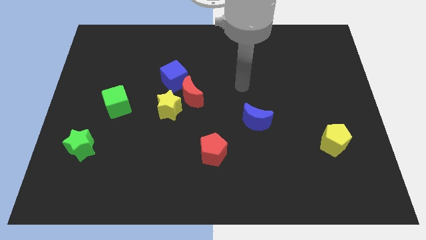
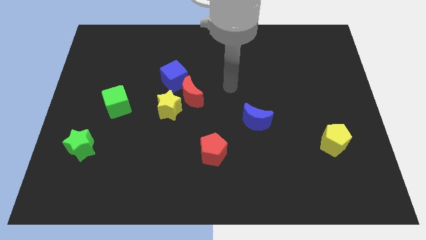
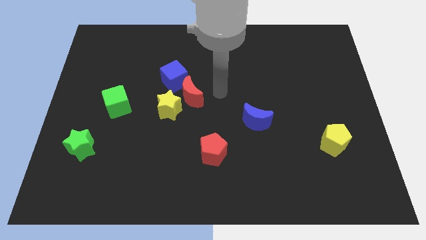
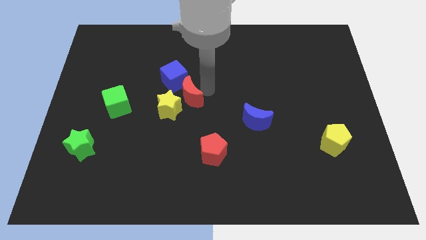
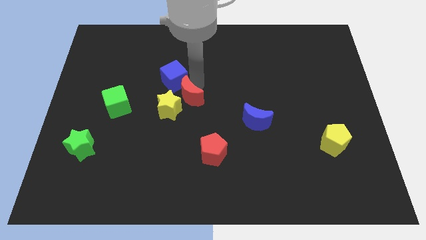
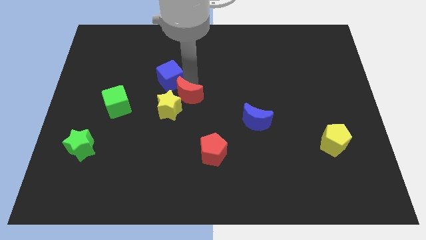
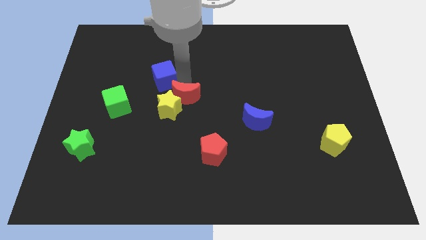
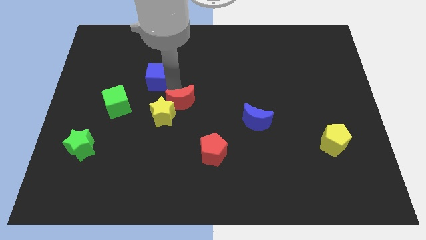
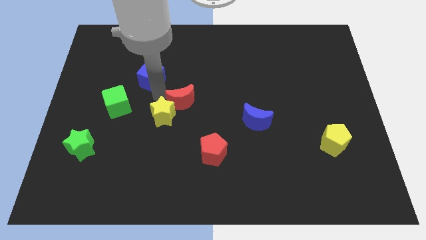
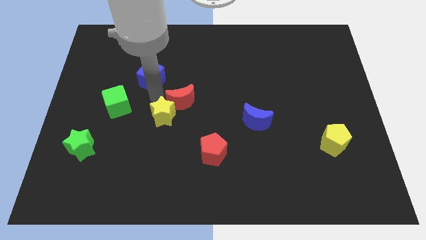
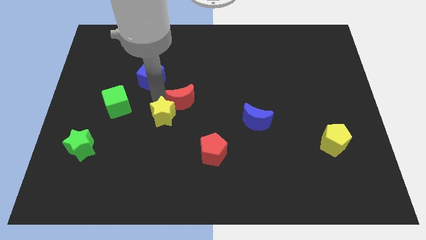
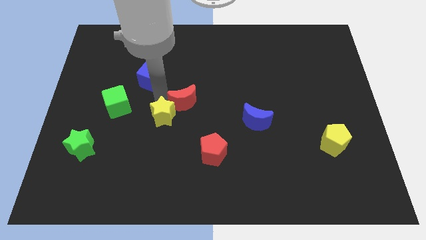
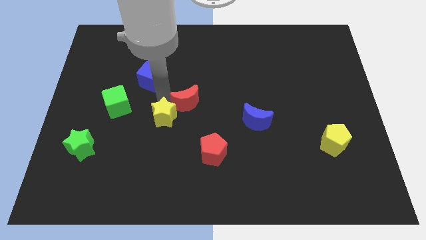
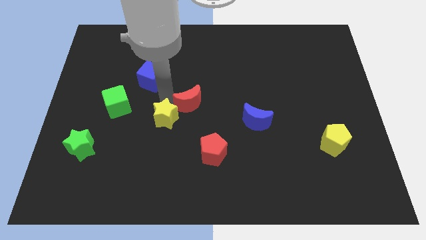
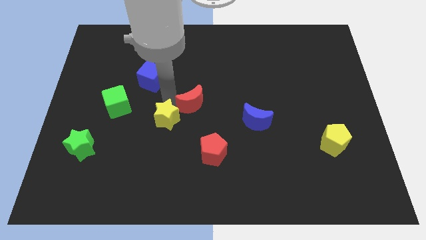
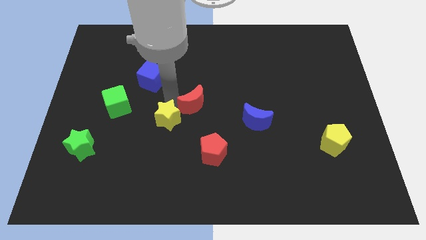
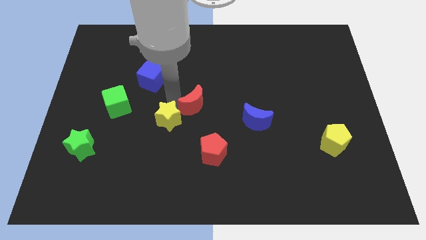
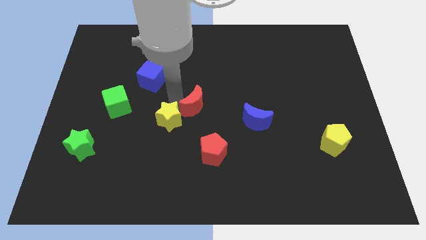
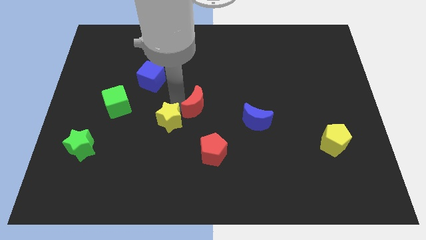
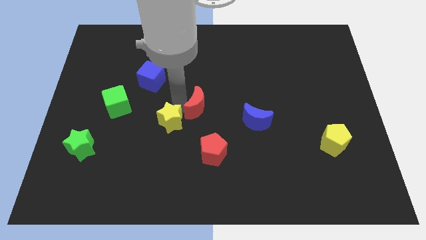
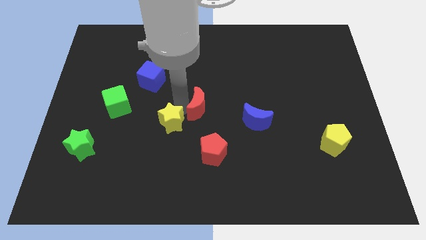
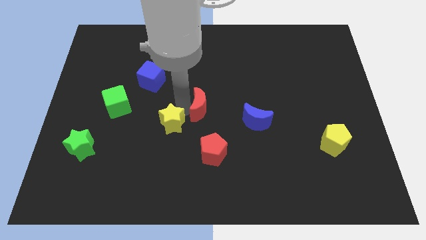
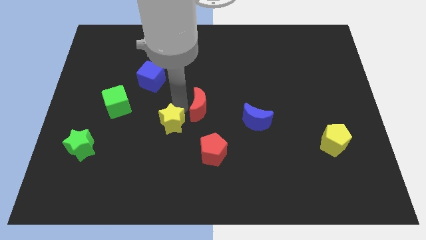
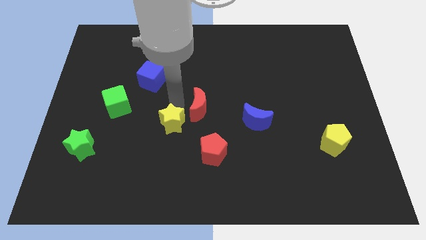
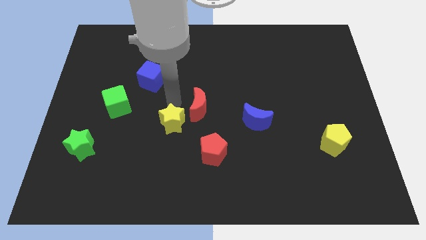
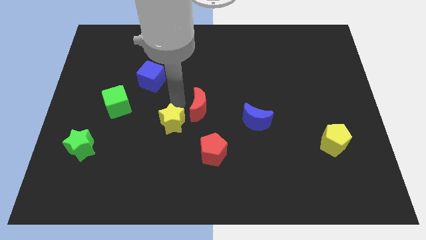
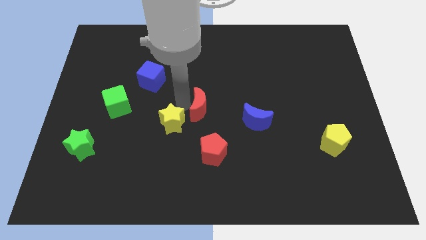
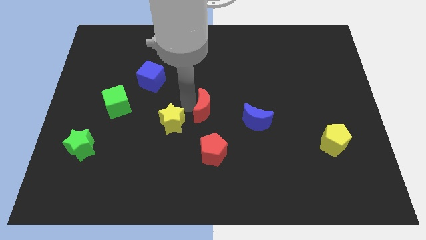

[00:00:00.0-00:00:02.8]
separate the red moon from the yellow star and blue cube

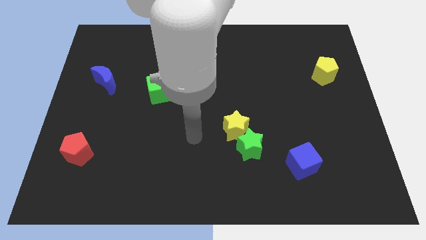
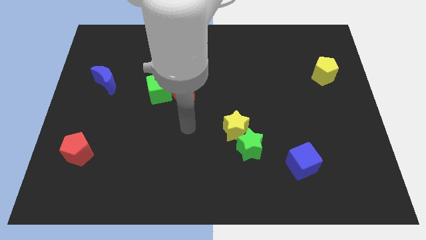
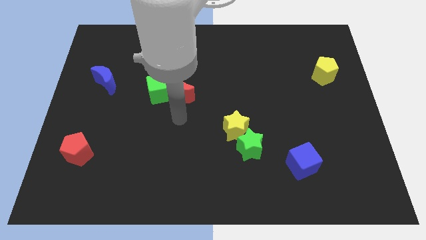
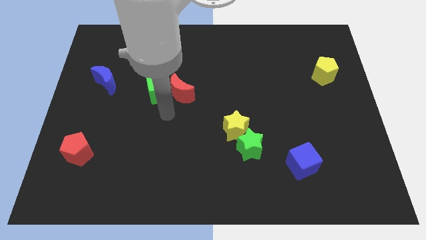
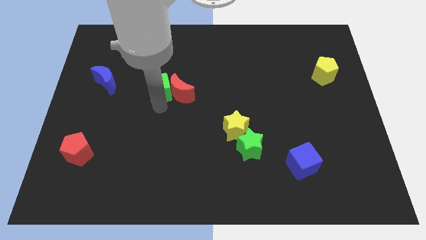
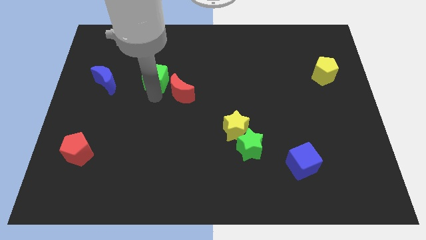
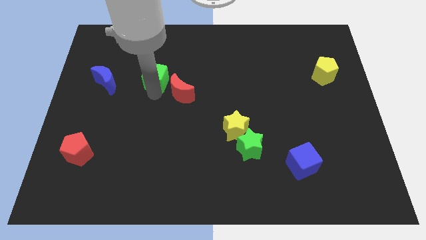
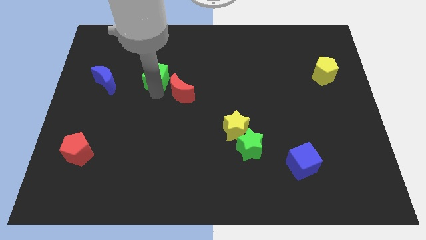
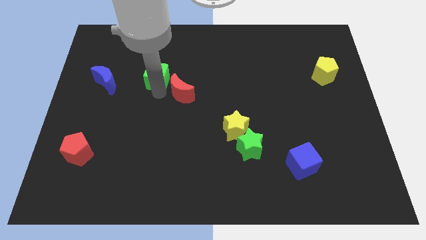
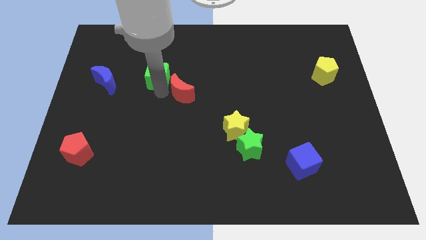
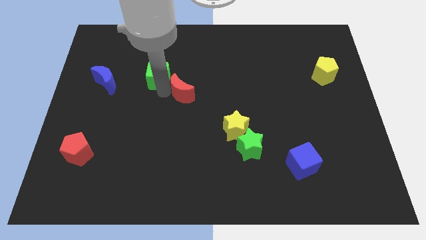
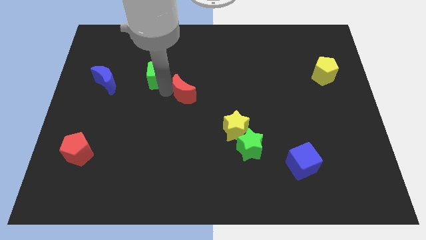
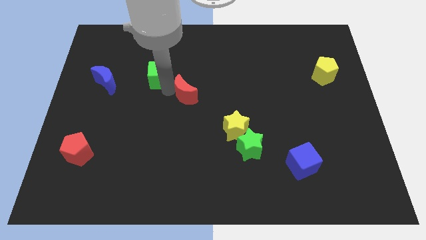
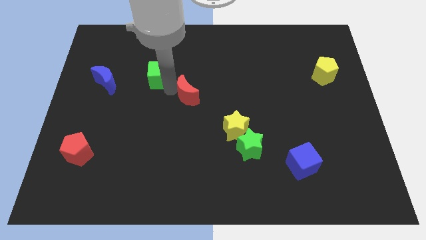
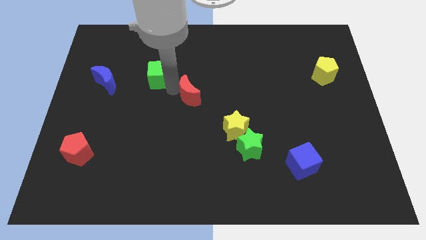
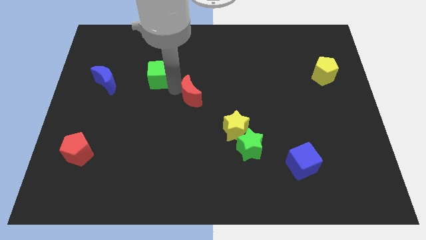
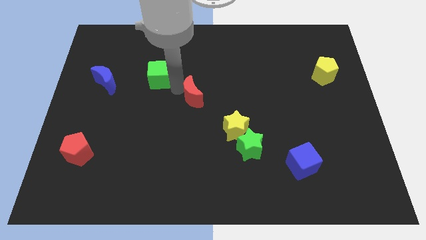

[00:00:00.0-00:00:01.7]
pull the red moon apart from the green cube

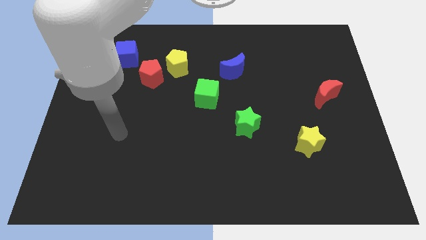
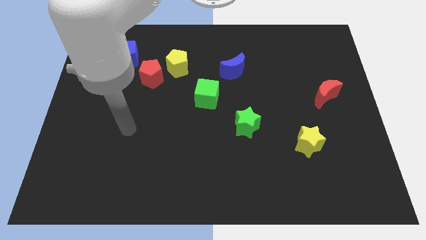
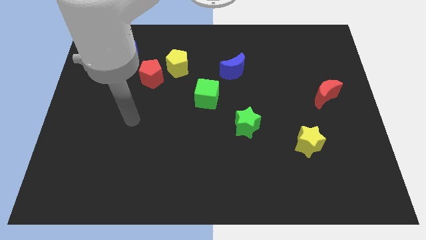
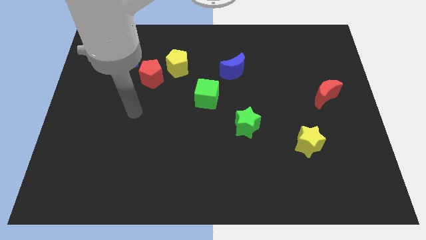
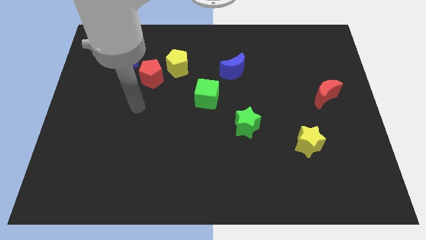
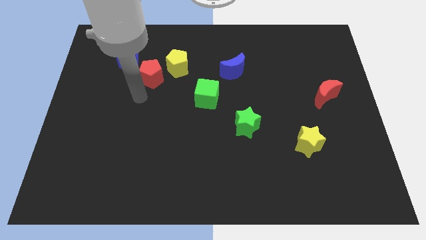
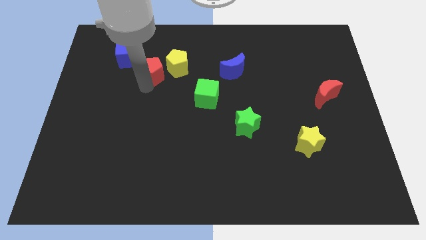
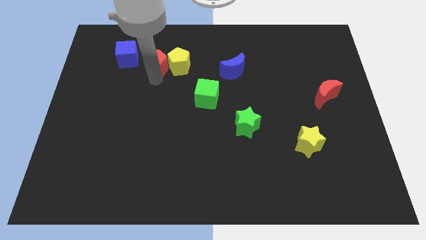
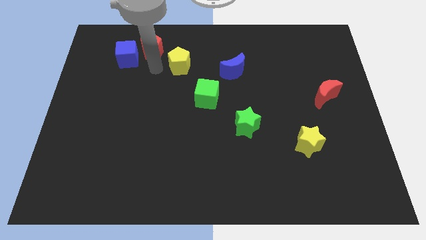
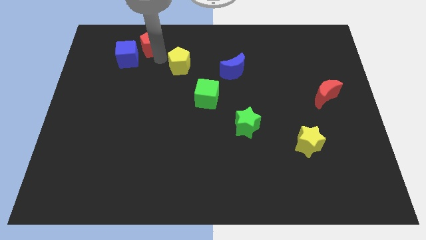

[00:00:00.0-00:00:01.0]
separate the yellow pentagon from the red pentagon

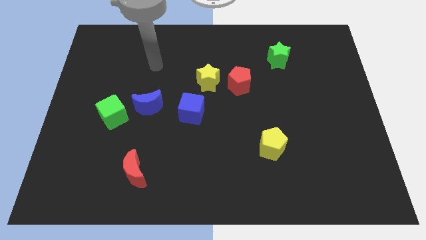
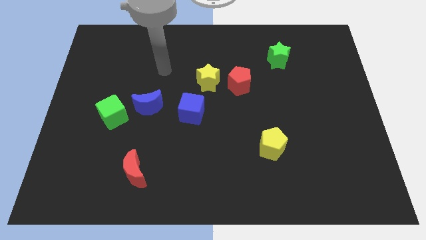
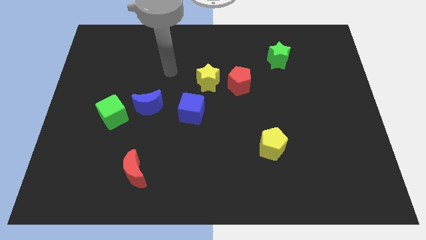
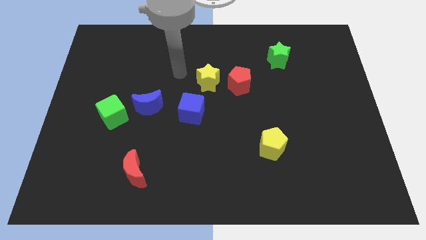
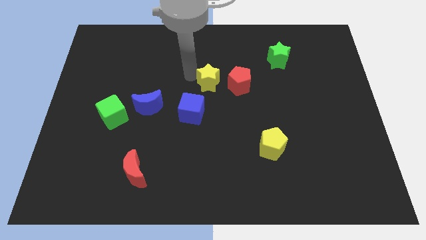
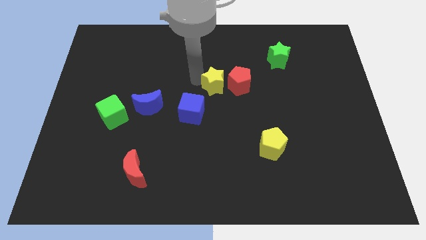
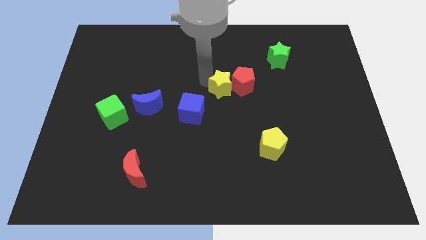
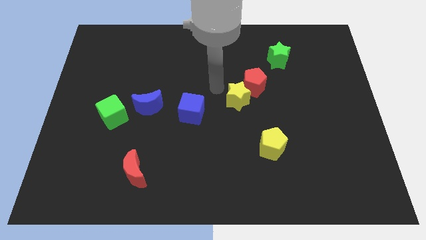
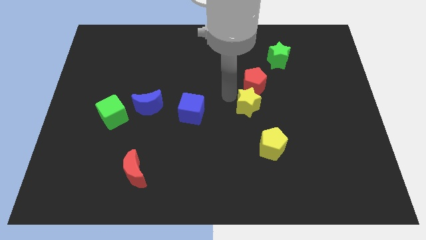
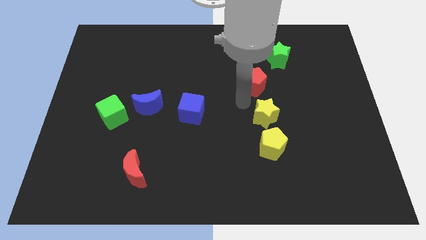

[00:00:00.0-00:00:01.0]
move the red pentagon away from the yellow star

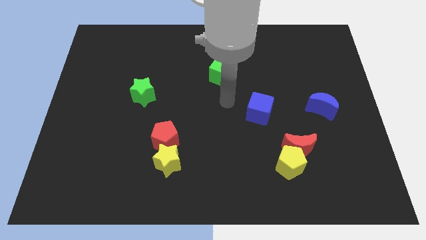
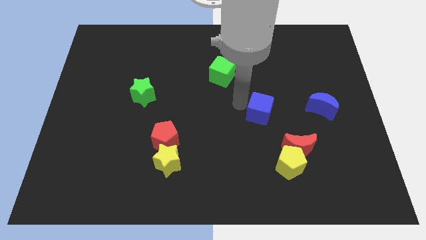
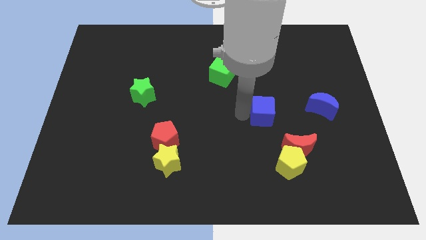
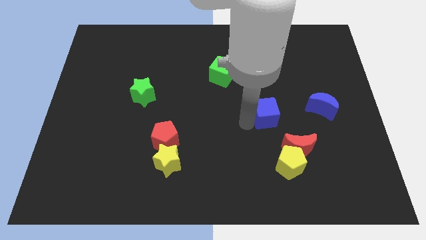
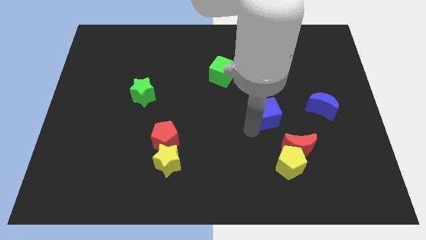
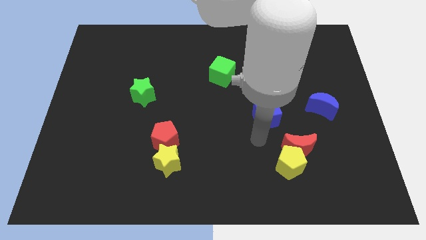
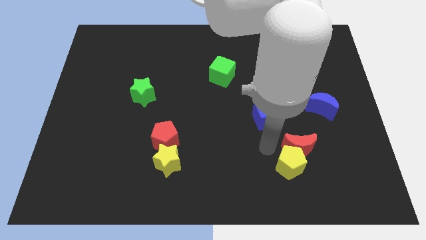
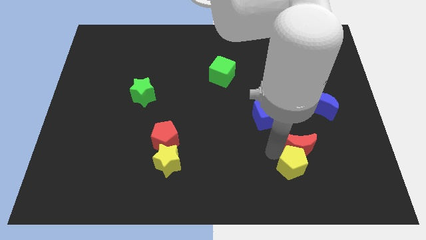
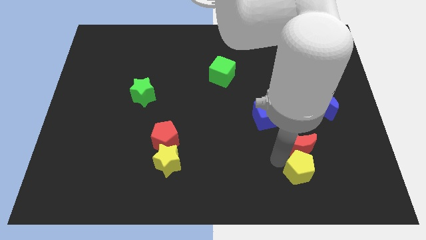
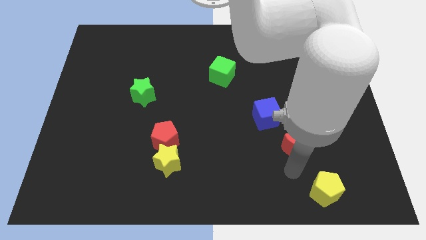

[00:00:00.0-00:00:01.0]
pull the red moon apart from the yellow pentagon

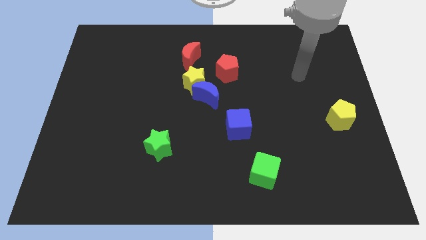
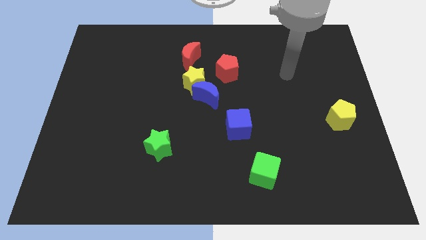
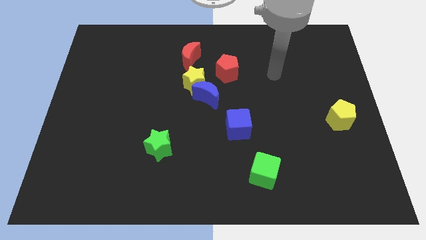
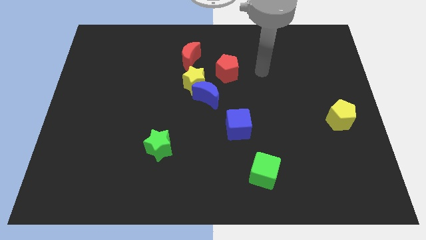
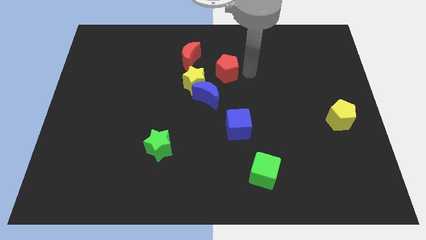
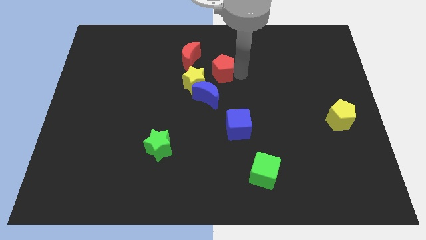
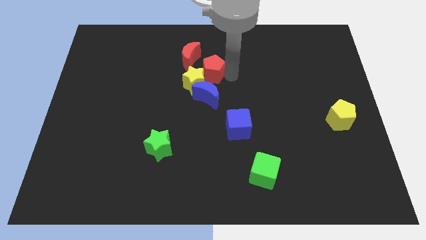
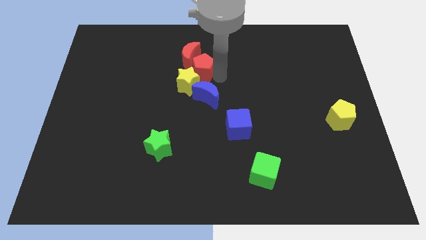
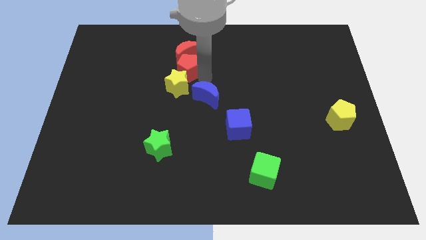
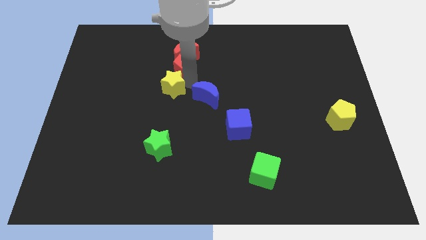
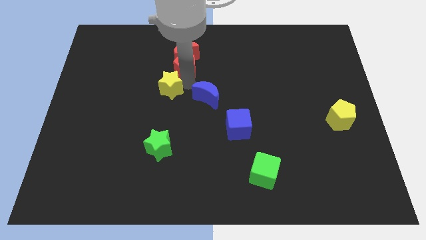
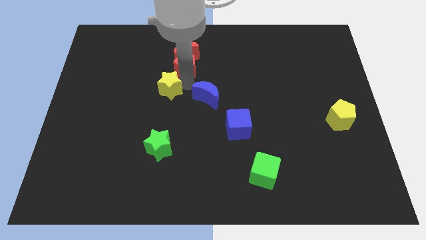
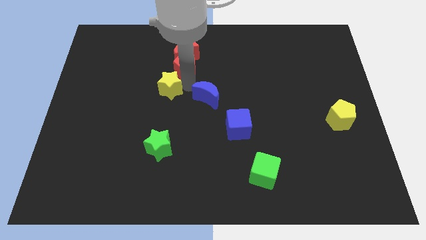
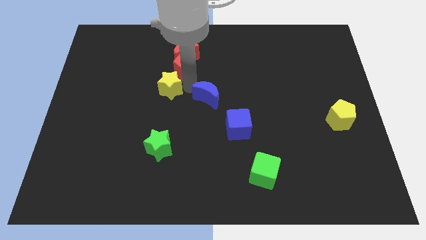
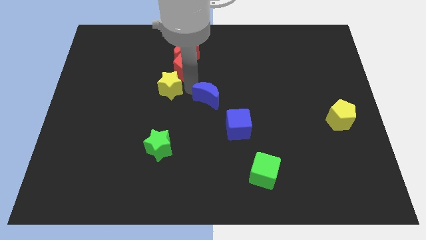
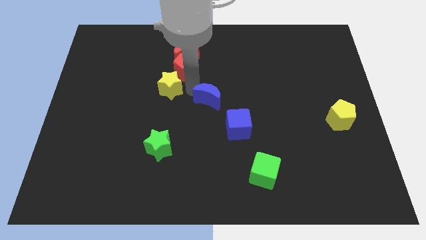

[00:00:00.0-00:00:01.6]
move the blue moon away from the yellow star and red pentagon

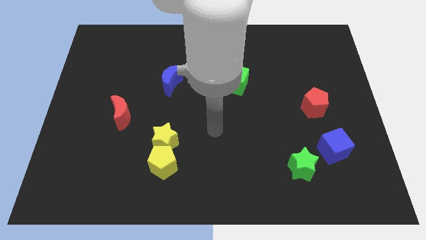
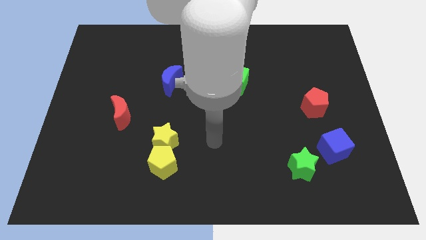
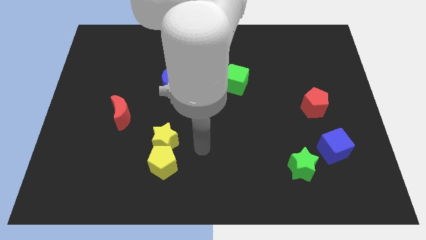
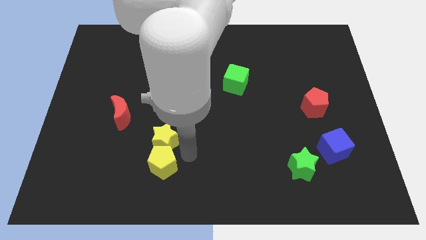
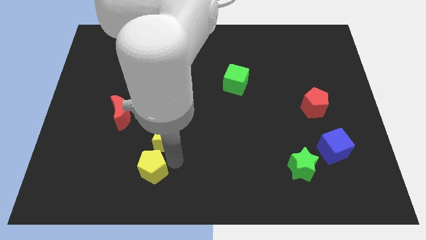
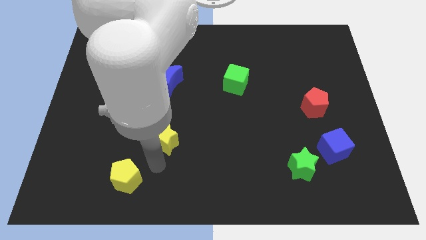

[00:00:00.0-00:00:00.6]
move the yellow star away from the yellow pentagon
